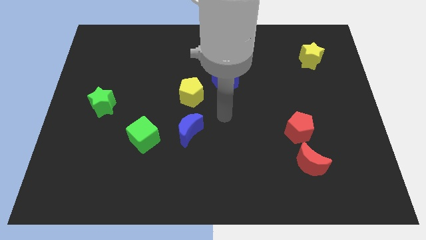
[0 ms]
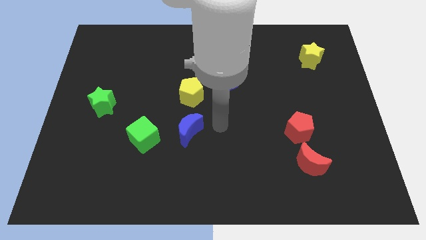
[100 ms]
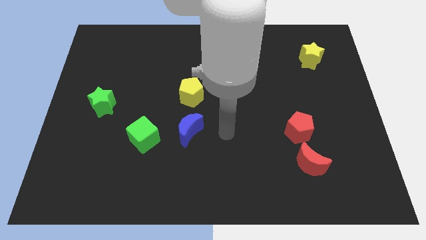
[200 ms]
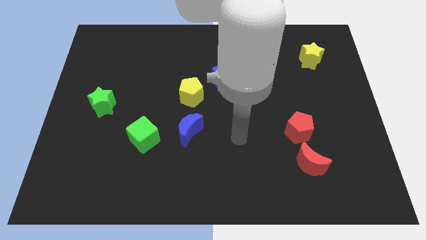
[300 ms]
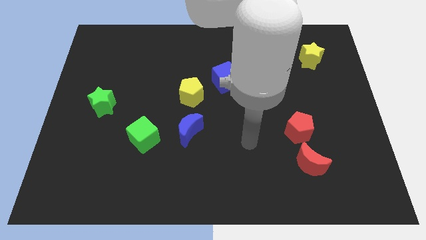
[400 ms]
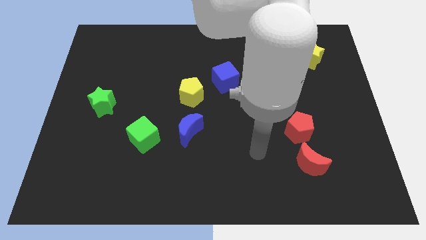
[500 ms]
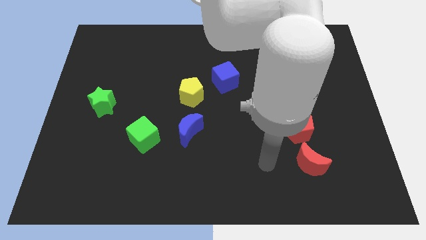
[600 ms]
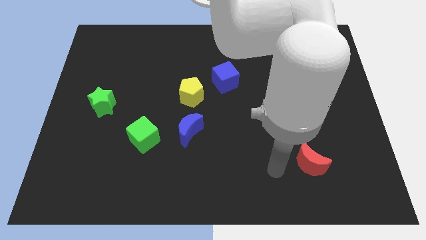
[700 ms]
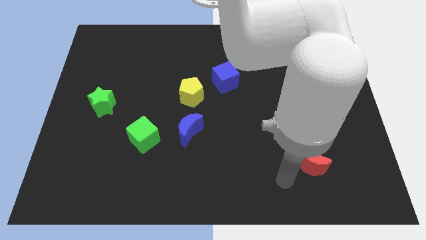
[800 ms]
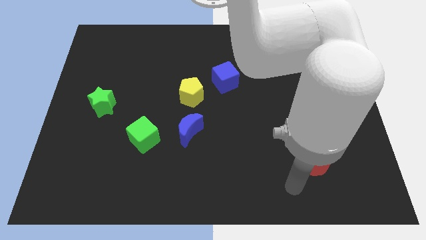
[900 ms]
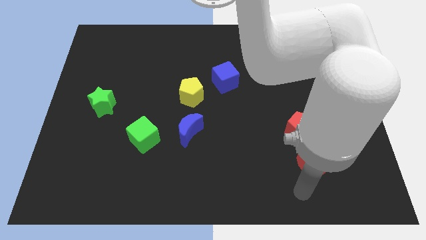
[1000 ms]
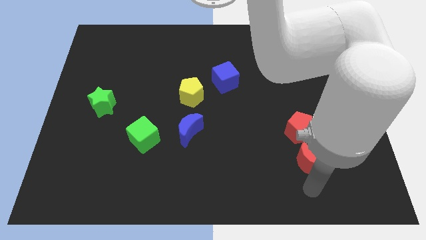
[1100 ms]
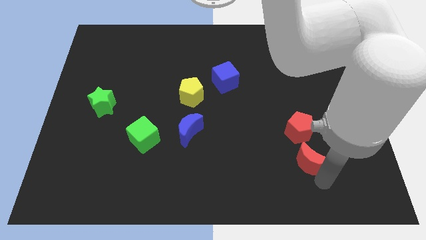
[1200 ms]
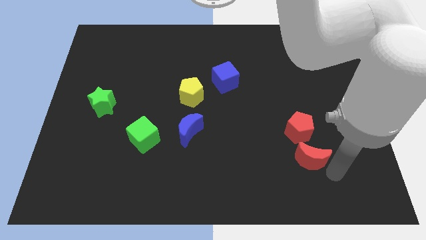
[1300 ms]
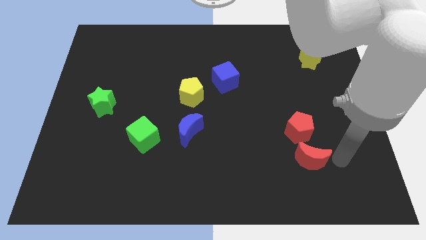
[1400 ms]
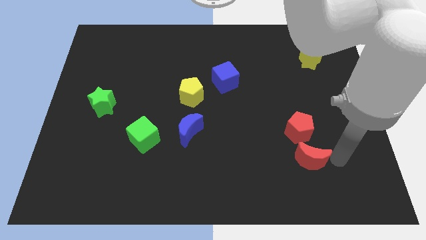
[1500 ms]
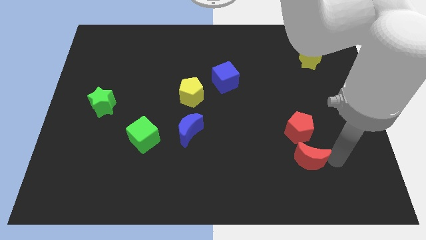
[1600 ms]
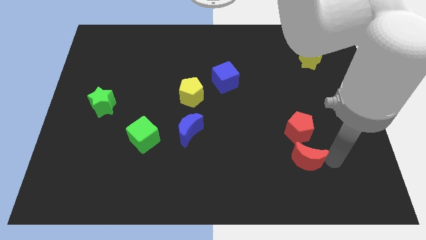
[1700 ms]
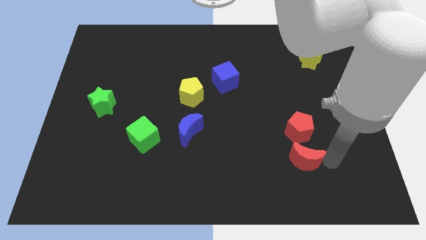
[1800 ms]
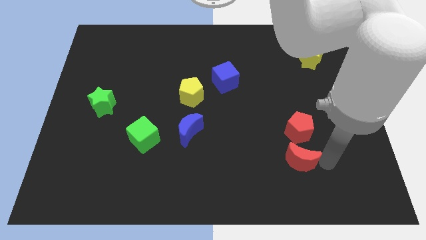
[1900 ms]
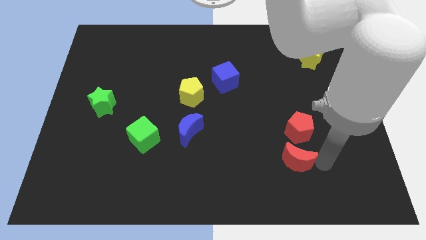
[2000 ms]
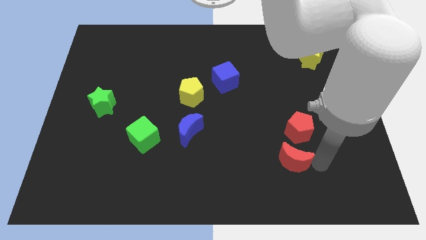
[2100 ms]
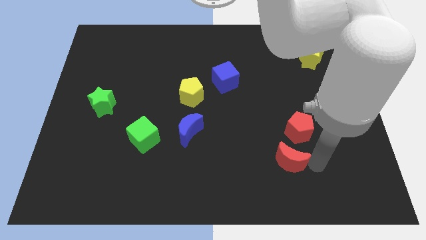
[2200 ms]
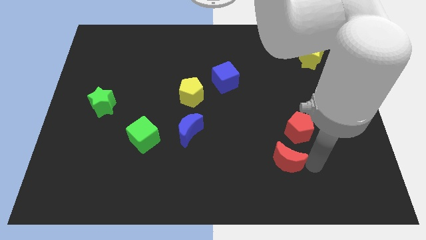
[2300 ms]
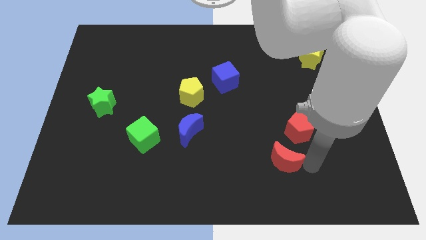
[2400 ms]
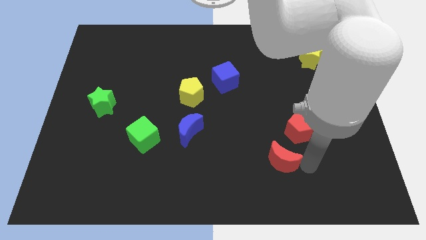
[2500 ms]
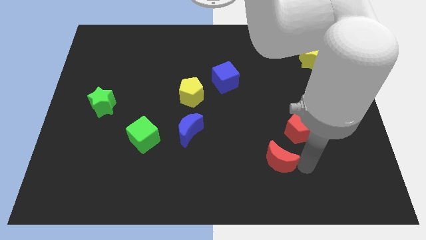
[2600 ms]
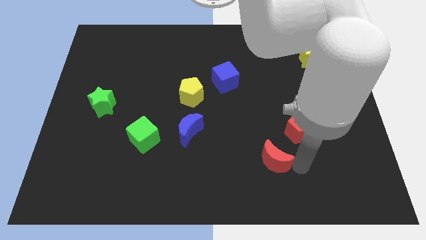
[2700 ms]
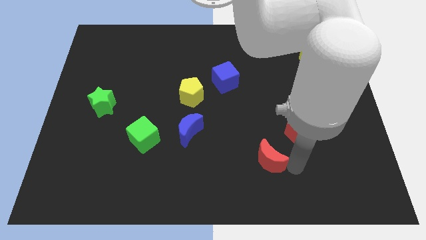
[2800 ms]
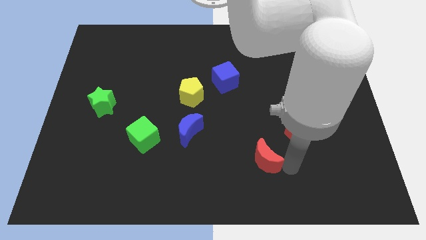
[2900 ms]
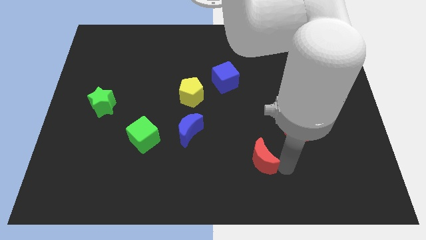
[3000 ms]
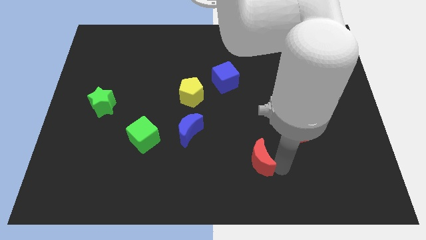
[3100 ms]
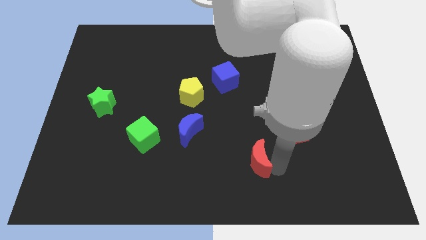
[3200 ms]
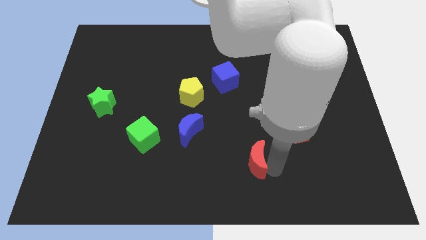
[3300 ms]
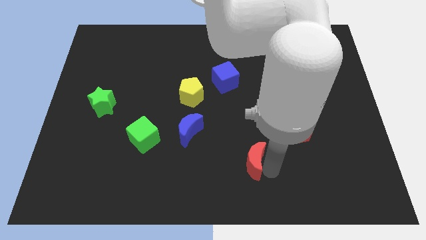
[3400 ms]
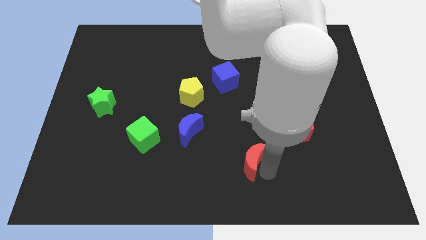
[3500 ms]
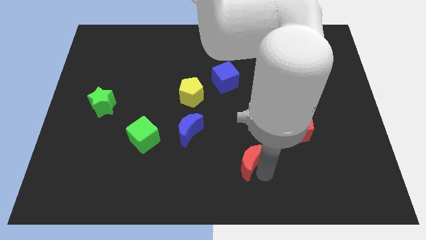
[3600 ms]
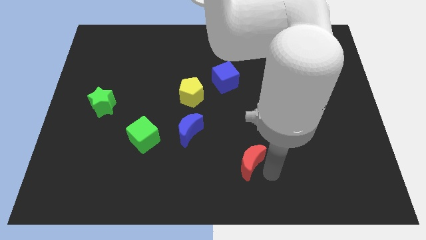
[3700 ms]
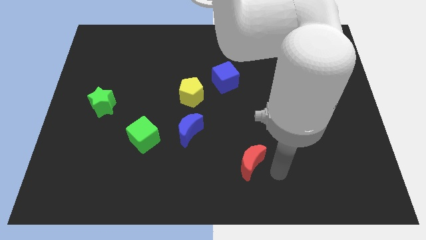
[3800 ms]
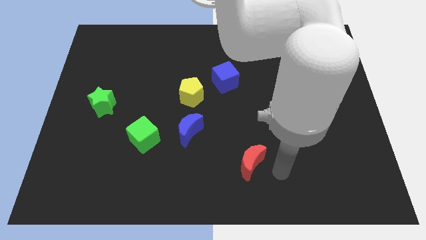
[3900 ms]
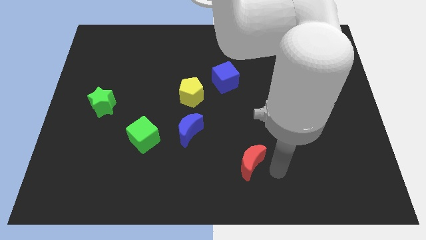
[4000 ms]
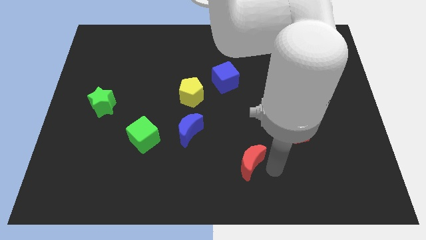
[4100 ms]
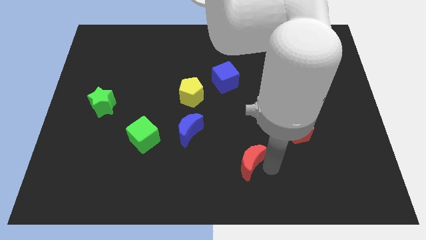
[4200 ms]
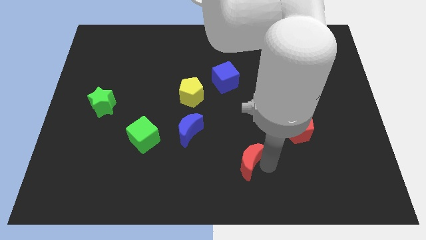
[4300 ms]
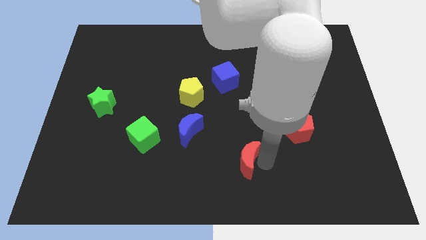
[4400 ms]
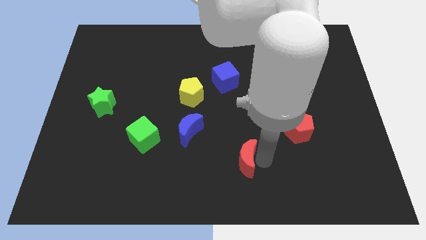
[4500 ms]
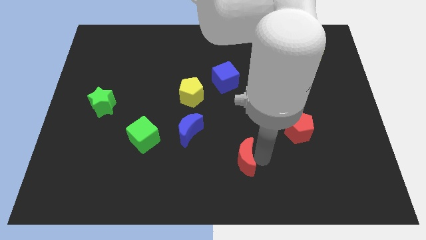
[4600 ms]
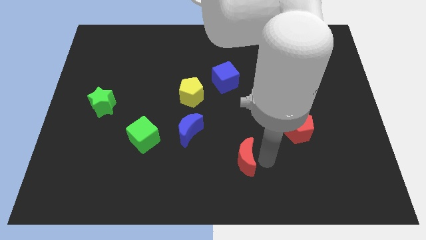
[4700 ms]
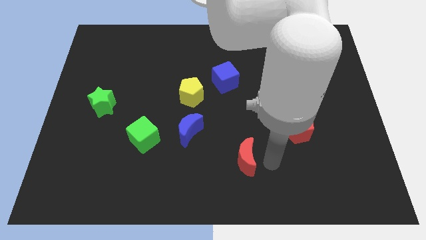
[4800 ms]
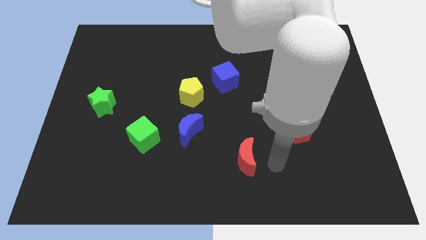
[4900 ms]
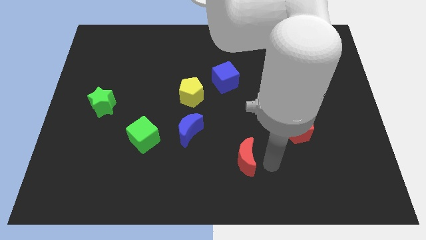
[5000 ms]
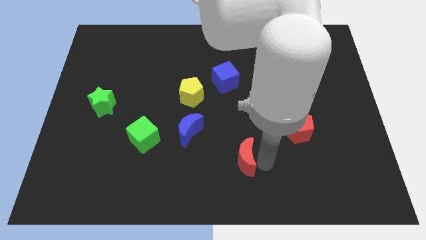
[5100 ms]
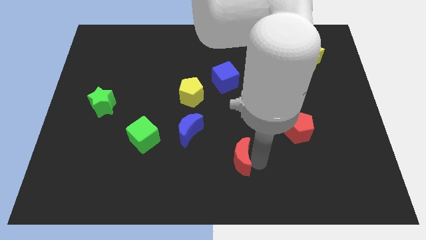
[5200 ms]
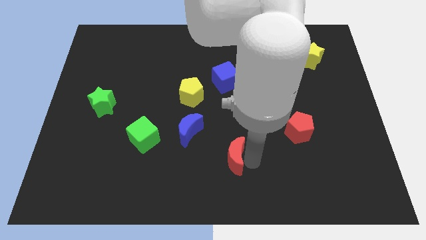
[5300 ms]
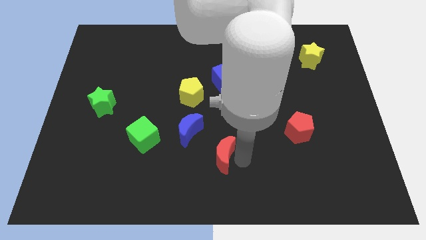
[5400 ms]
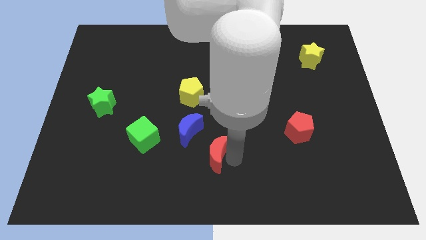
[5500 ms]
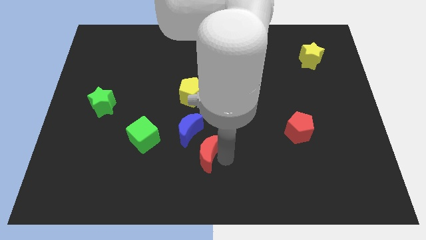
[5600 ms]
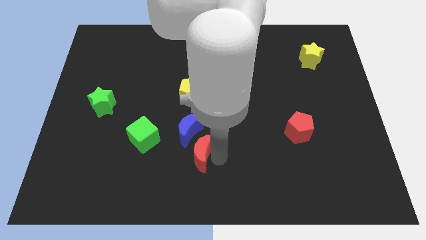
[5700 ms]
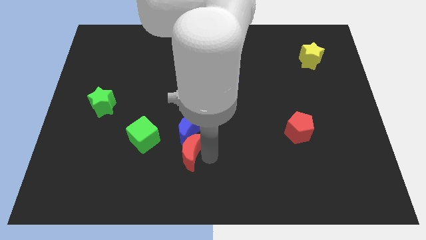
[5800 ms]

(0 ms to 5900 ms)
push the red moon diagonally down and to the left of the blue moon

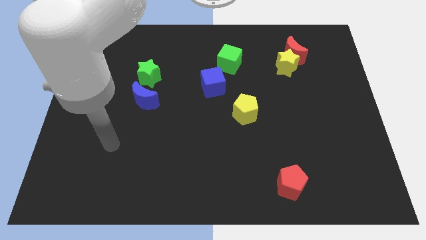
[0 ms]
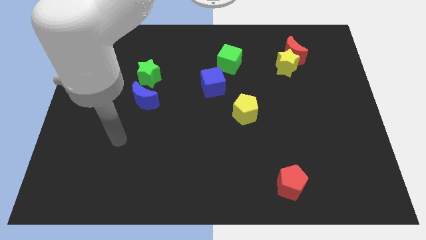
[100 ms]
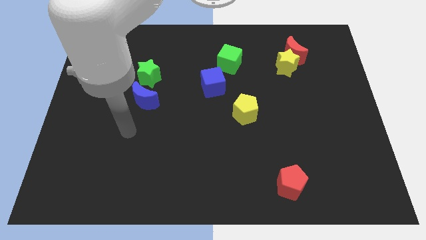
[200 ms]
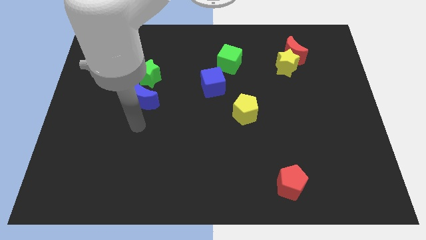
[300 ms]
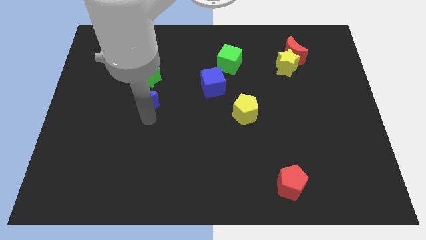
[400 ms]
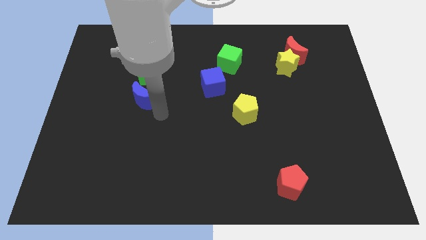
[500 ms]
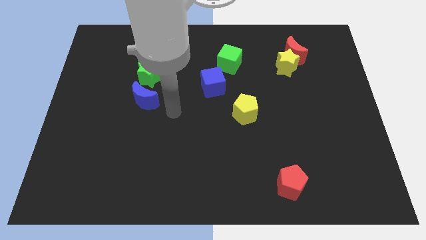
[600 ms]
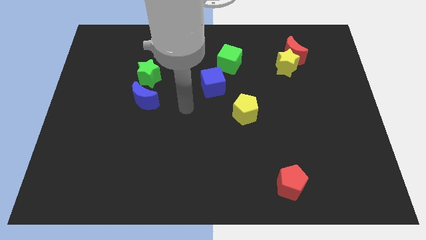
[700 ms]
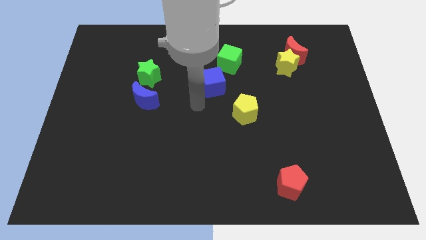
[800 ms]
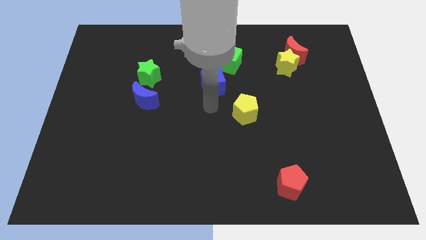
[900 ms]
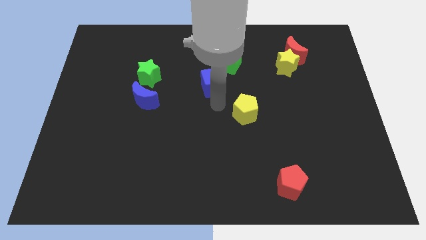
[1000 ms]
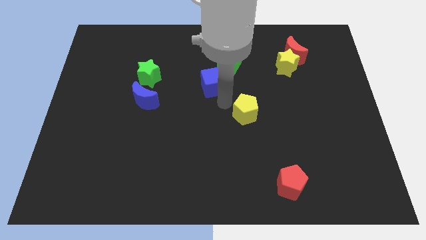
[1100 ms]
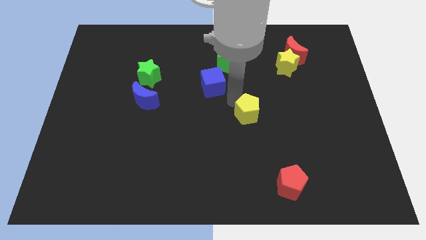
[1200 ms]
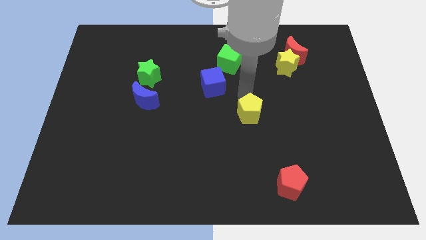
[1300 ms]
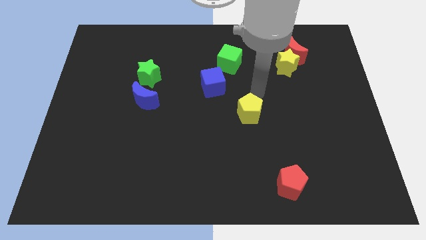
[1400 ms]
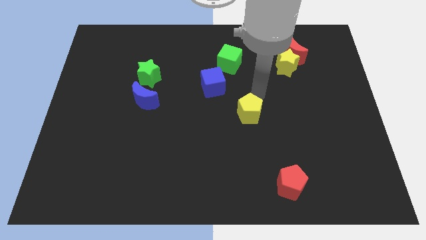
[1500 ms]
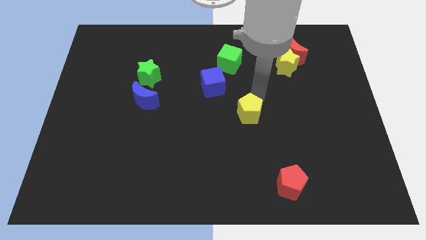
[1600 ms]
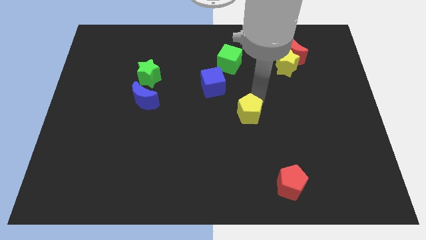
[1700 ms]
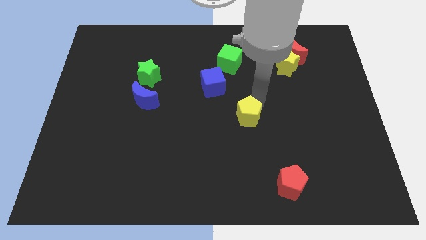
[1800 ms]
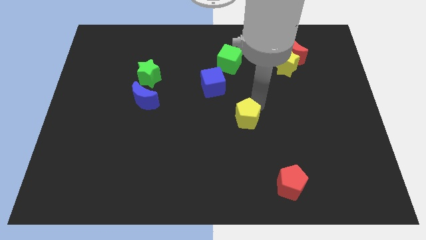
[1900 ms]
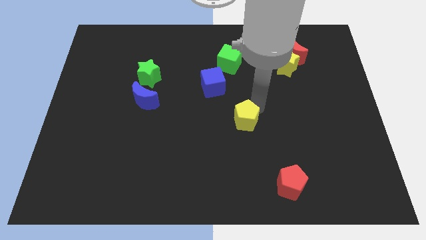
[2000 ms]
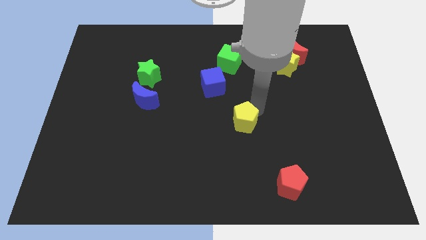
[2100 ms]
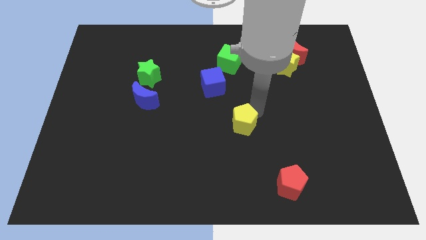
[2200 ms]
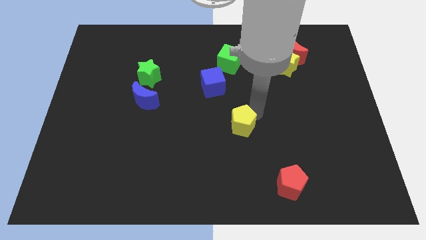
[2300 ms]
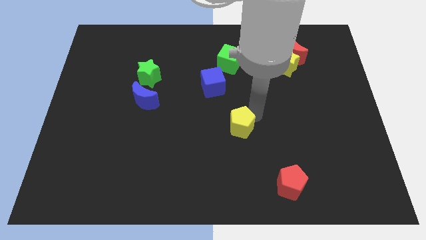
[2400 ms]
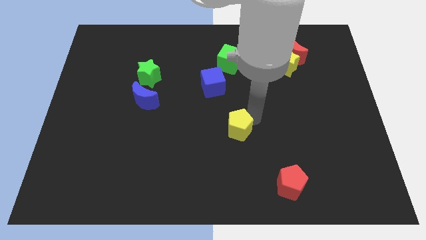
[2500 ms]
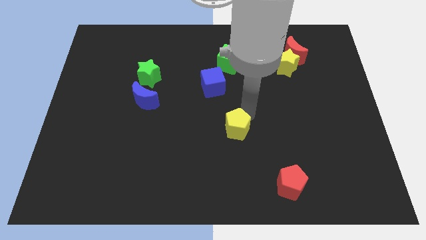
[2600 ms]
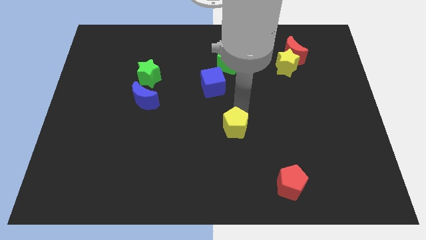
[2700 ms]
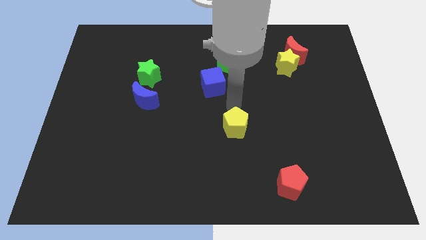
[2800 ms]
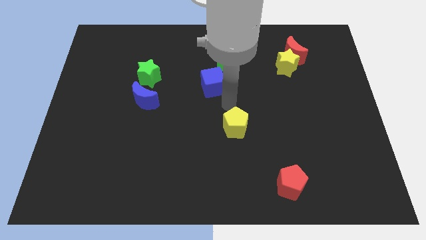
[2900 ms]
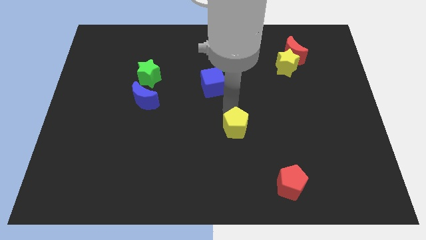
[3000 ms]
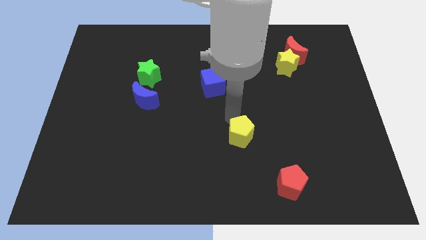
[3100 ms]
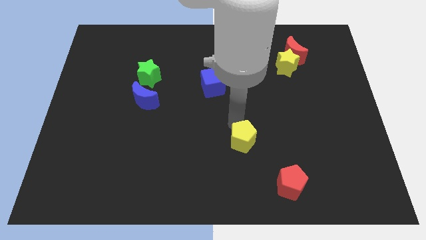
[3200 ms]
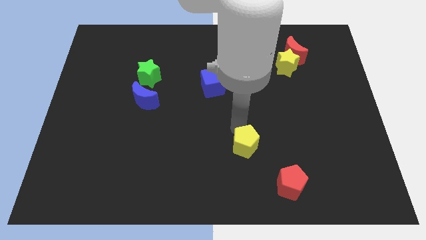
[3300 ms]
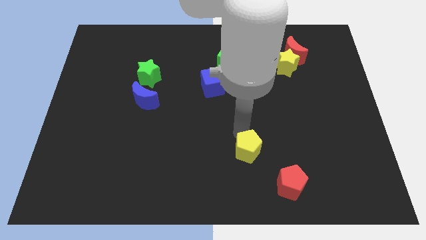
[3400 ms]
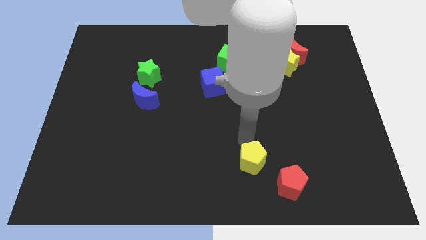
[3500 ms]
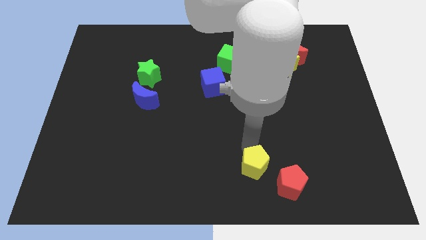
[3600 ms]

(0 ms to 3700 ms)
slide the yellow pentagon to the left of the red pentagon
